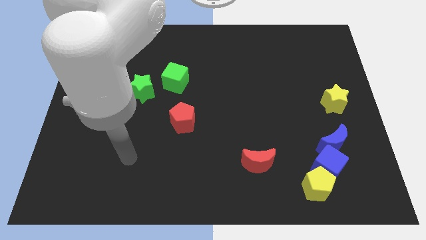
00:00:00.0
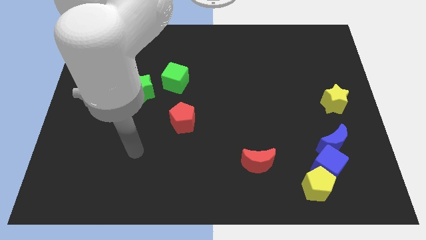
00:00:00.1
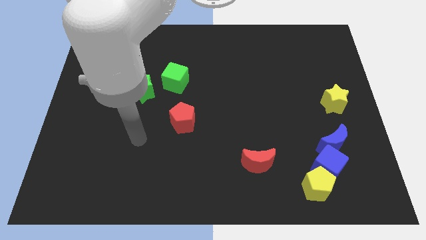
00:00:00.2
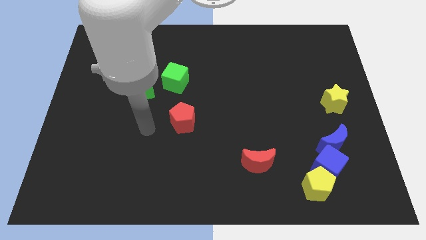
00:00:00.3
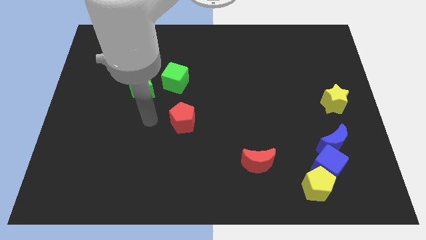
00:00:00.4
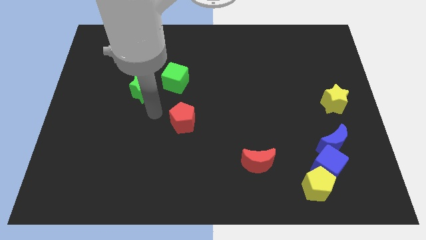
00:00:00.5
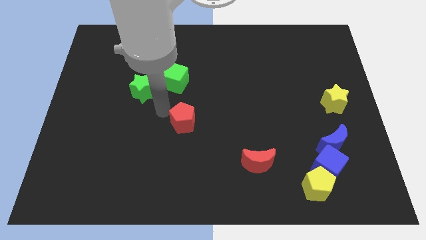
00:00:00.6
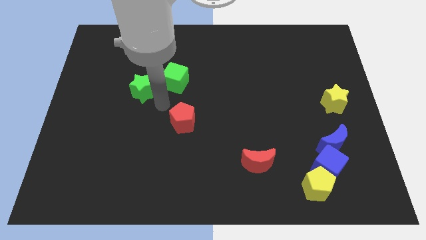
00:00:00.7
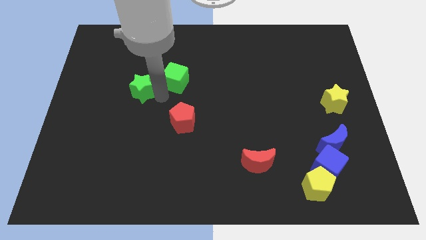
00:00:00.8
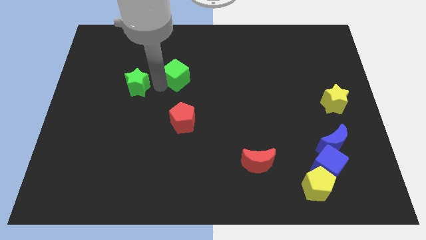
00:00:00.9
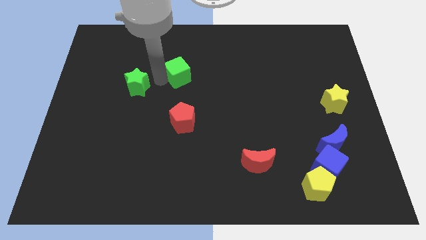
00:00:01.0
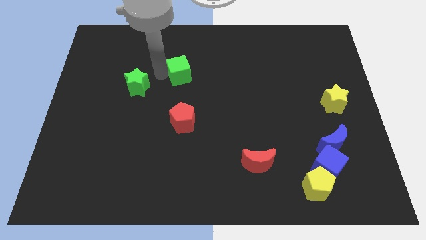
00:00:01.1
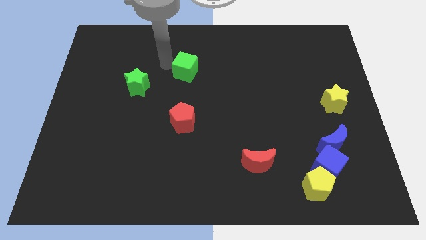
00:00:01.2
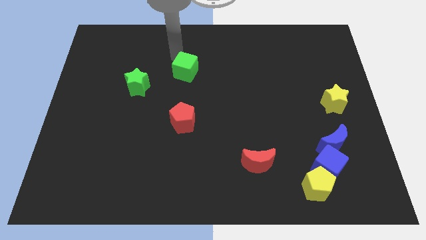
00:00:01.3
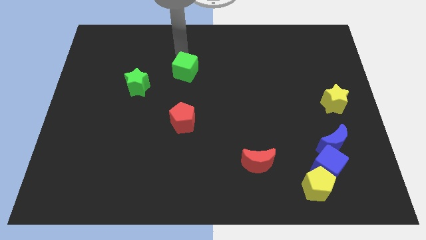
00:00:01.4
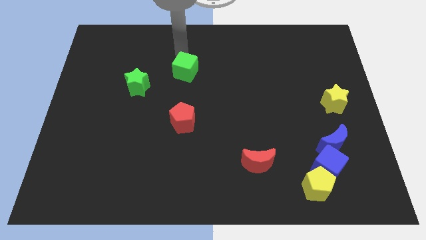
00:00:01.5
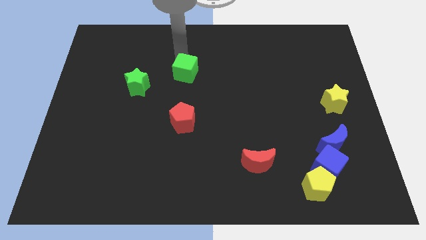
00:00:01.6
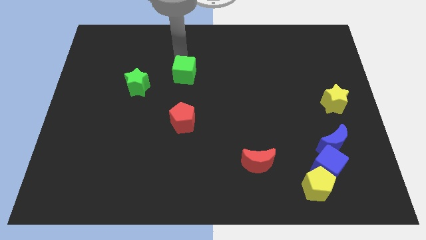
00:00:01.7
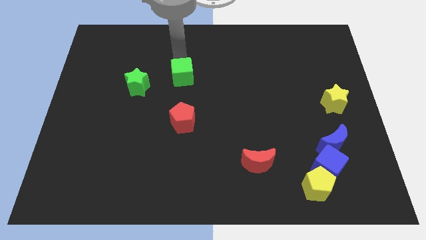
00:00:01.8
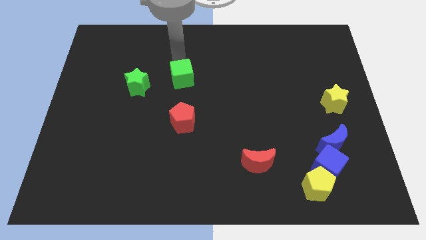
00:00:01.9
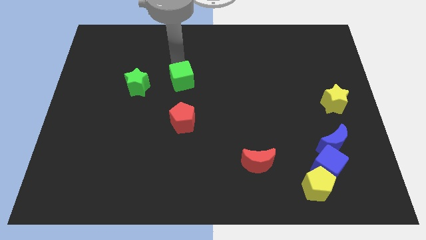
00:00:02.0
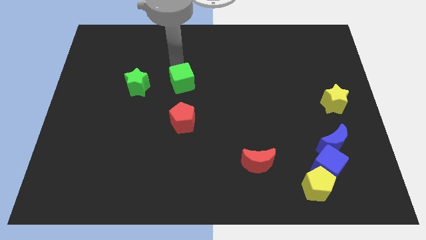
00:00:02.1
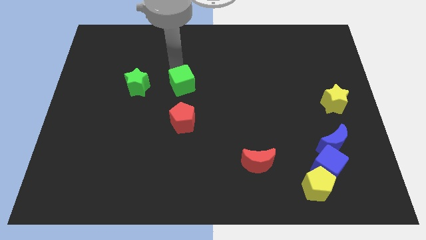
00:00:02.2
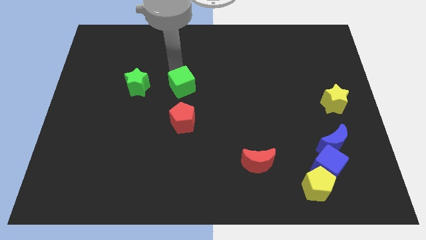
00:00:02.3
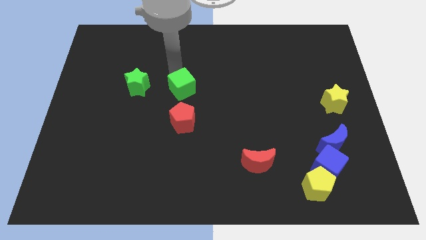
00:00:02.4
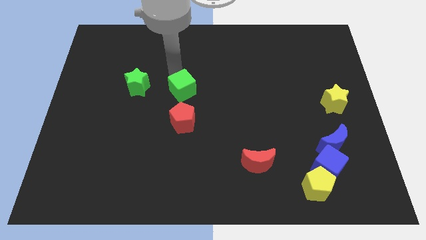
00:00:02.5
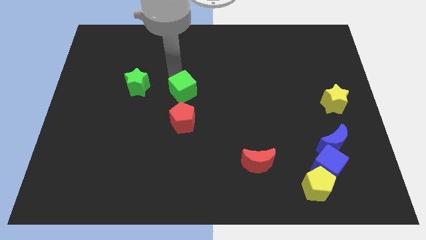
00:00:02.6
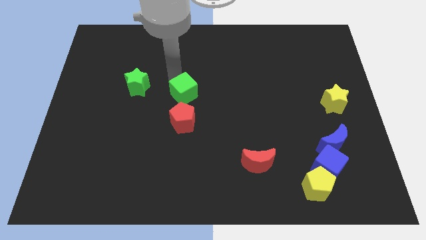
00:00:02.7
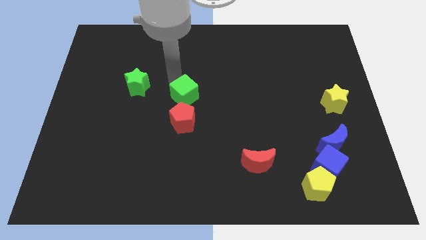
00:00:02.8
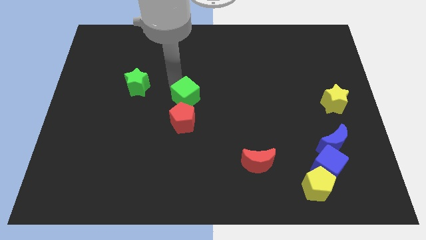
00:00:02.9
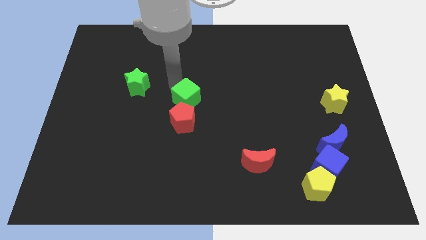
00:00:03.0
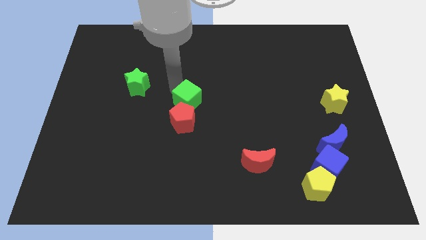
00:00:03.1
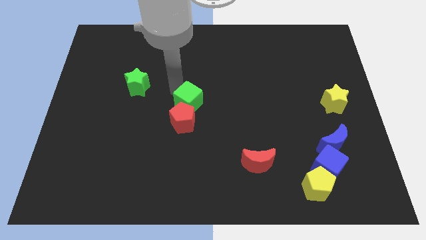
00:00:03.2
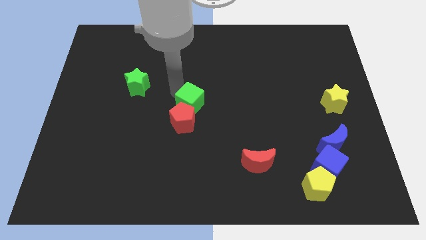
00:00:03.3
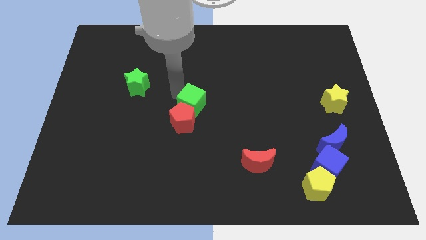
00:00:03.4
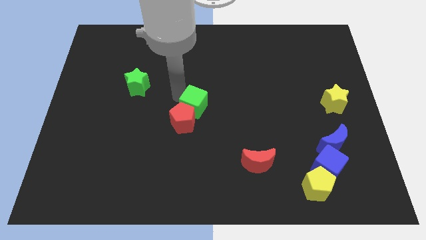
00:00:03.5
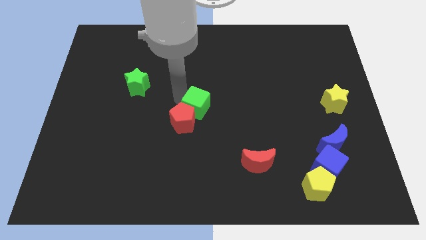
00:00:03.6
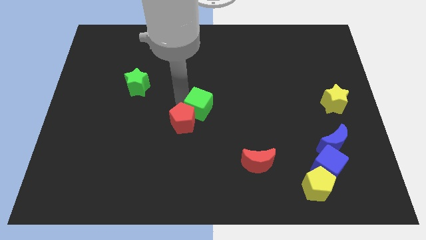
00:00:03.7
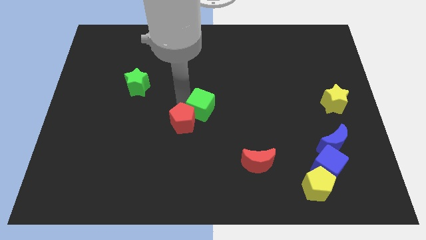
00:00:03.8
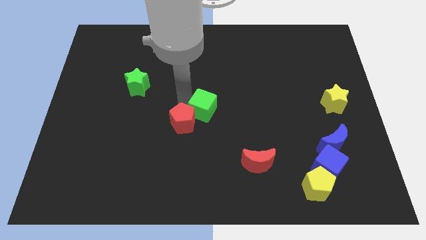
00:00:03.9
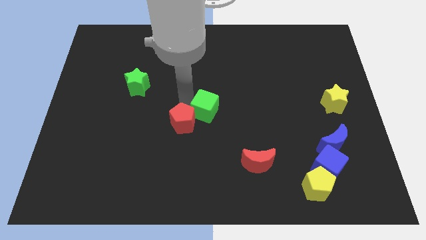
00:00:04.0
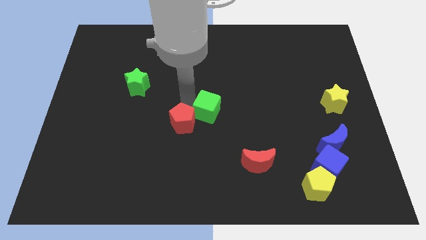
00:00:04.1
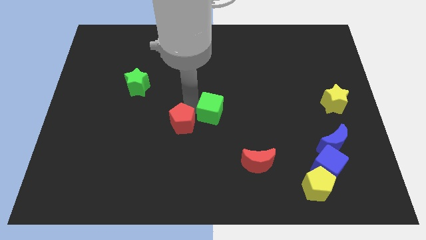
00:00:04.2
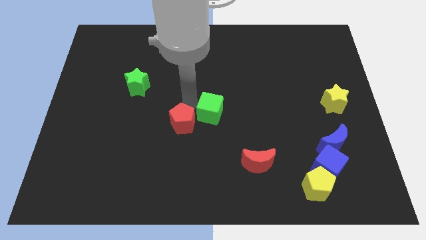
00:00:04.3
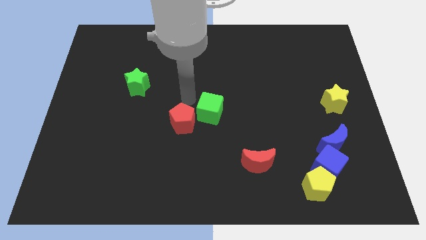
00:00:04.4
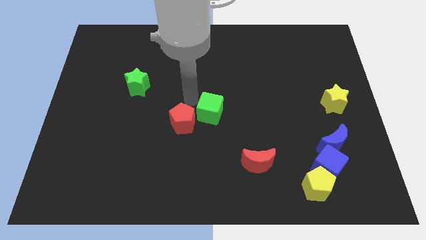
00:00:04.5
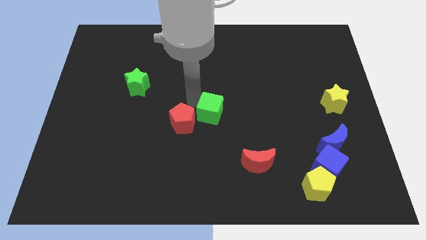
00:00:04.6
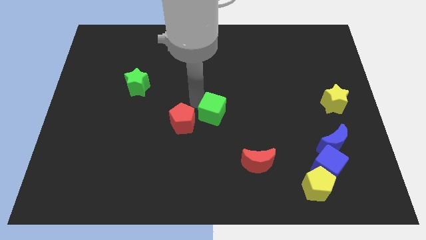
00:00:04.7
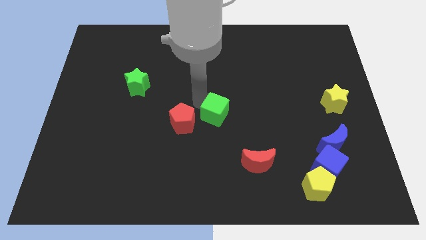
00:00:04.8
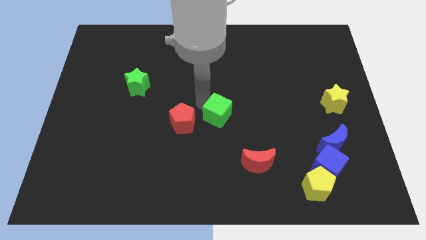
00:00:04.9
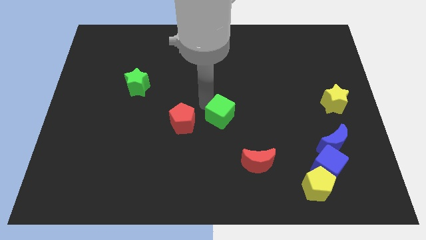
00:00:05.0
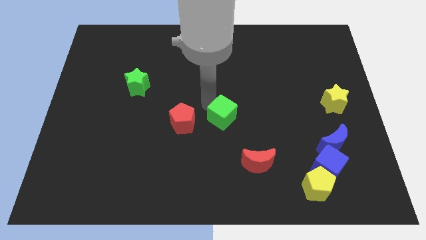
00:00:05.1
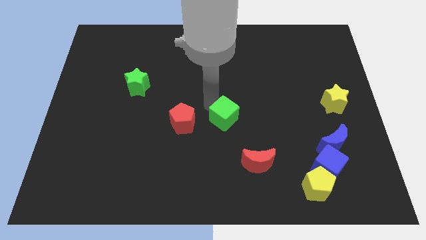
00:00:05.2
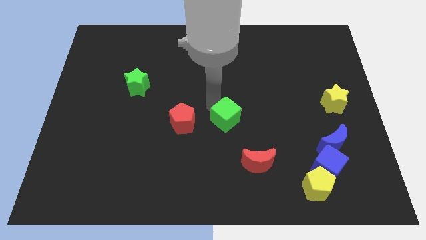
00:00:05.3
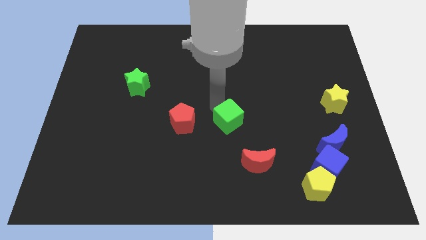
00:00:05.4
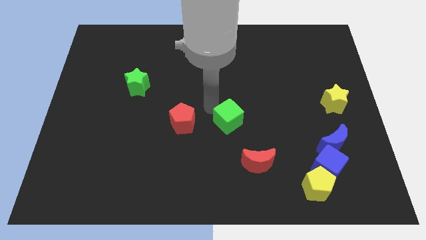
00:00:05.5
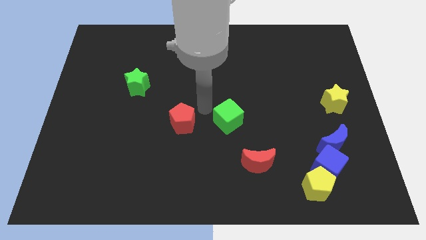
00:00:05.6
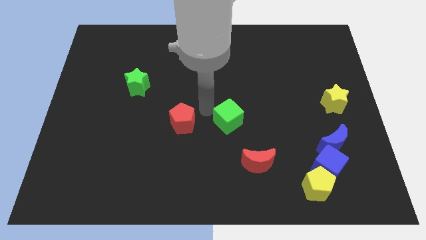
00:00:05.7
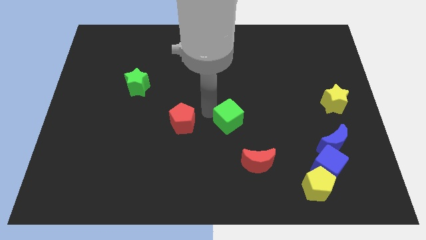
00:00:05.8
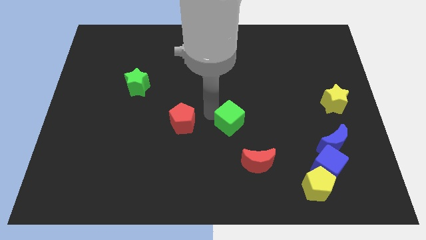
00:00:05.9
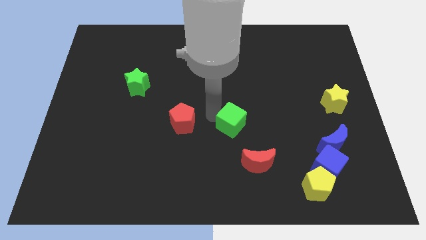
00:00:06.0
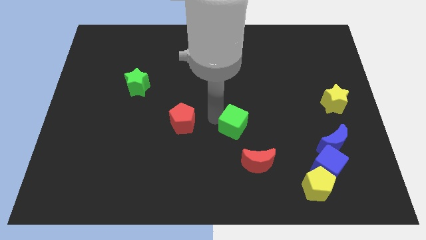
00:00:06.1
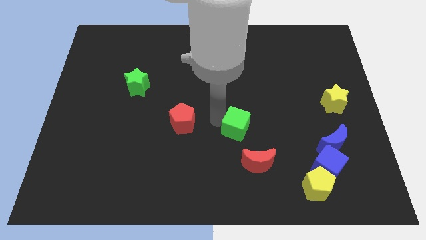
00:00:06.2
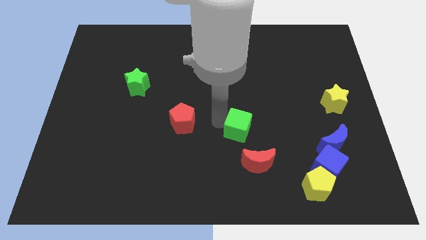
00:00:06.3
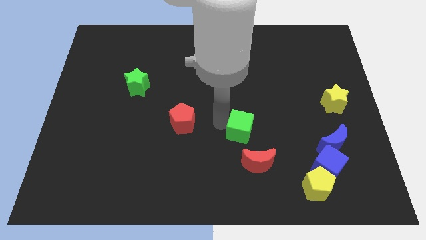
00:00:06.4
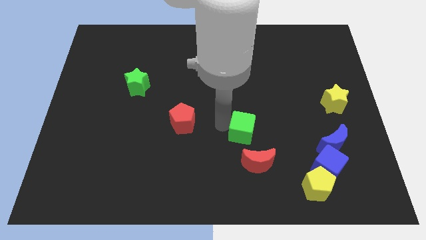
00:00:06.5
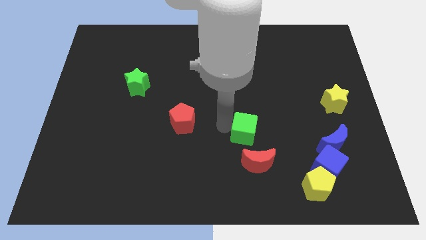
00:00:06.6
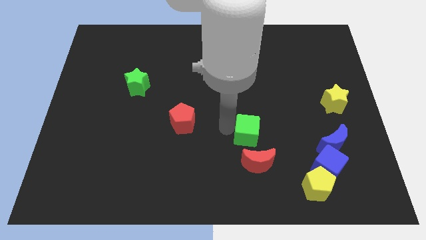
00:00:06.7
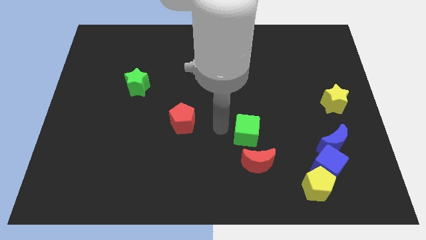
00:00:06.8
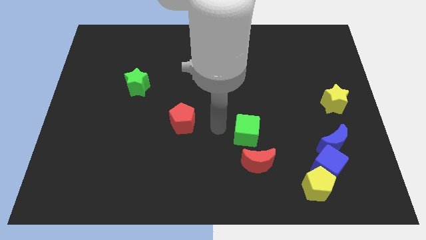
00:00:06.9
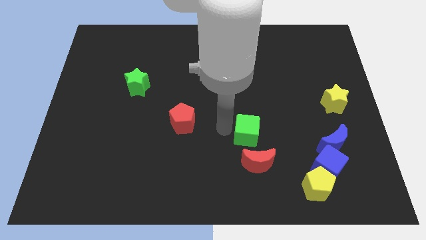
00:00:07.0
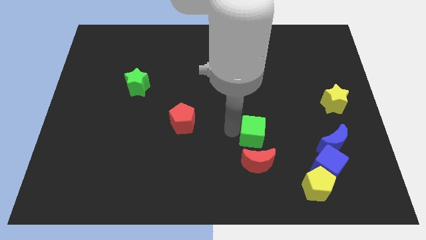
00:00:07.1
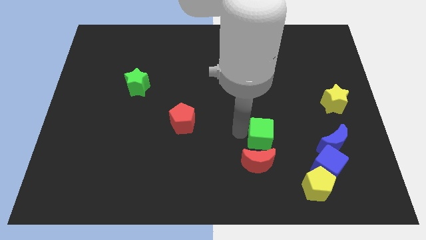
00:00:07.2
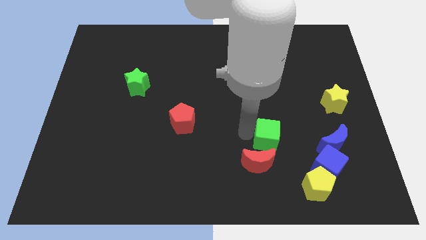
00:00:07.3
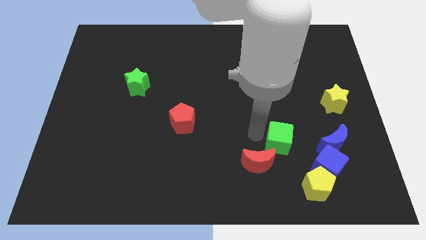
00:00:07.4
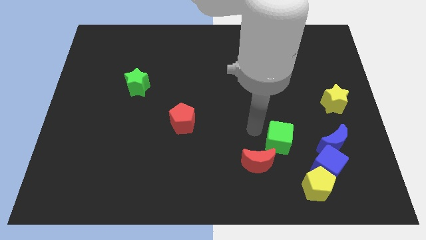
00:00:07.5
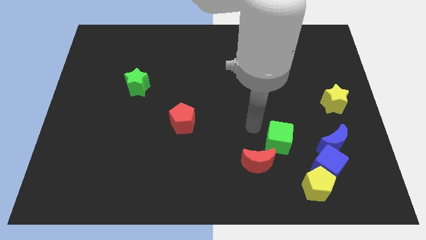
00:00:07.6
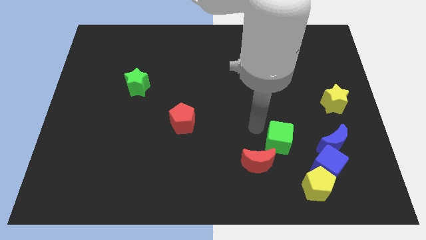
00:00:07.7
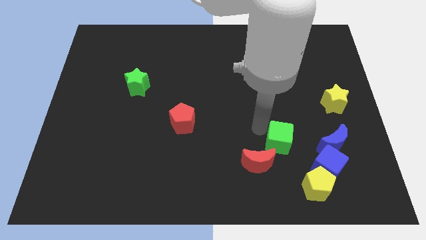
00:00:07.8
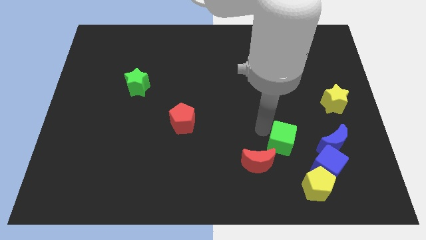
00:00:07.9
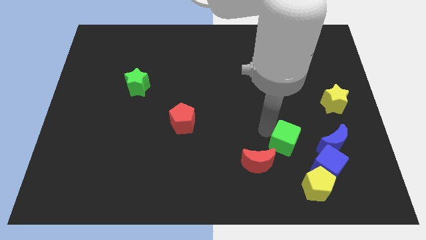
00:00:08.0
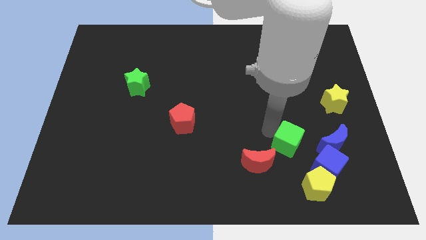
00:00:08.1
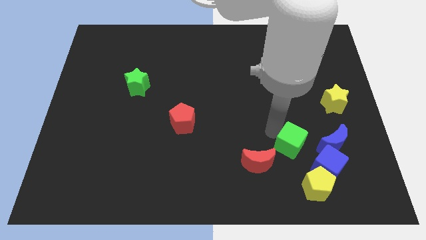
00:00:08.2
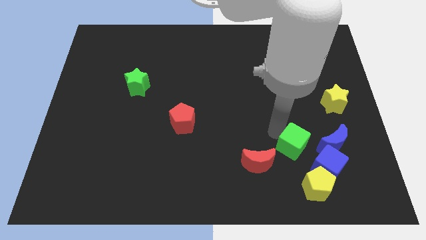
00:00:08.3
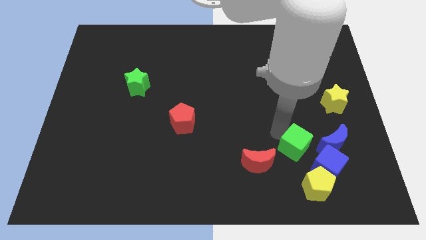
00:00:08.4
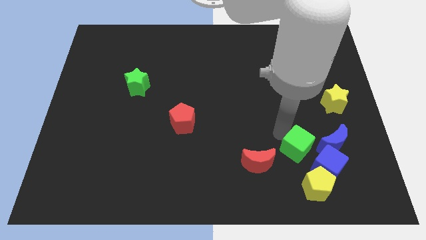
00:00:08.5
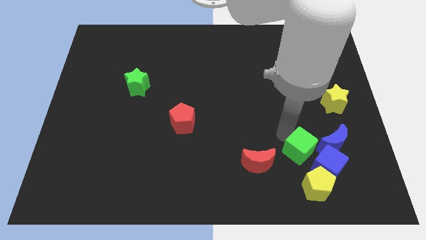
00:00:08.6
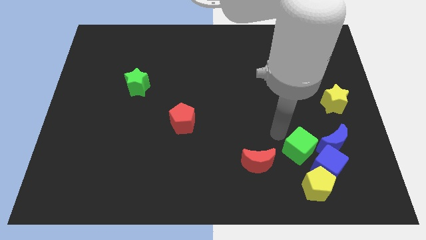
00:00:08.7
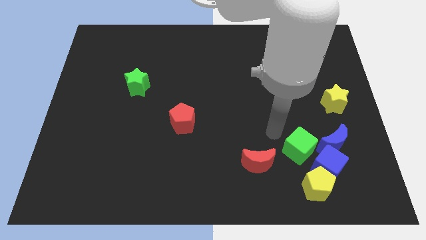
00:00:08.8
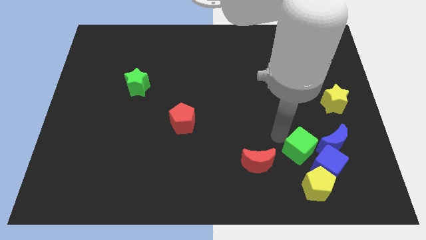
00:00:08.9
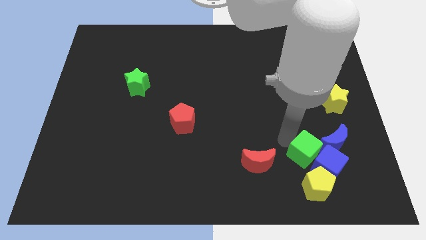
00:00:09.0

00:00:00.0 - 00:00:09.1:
move the green cube close to the blue cube
